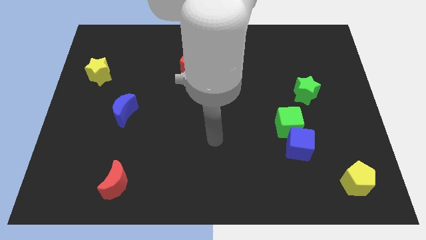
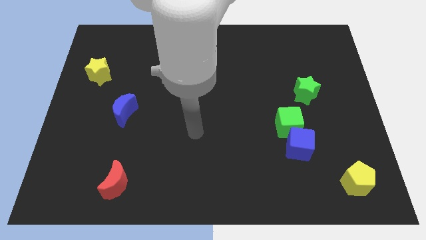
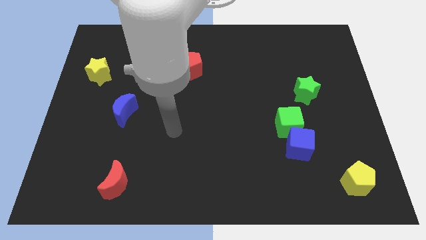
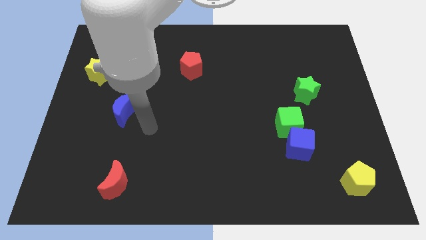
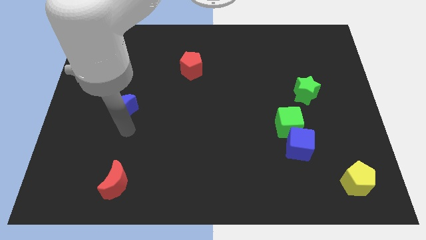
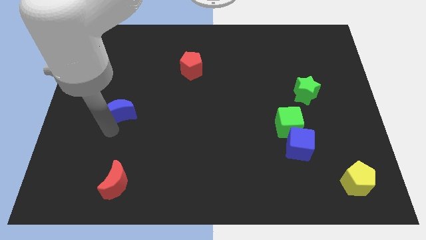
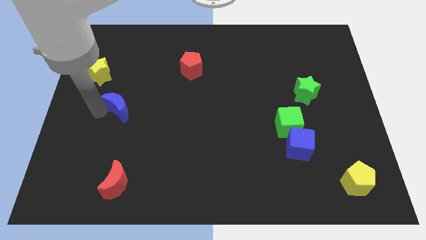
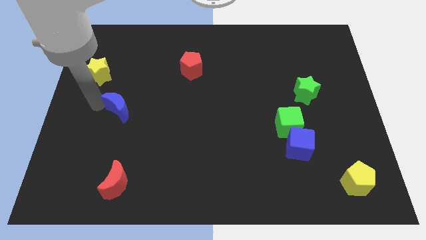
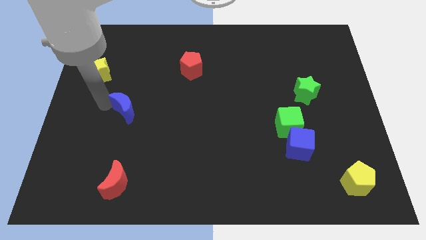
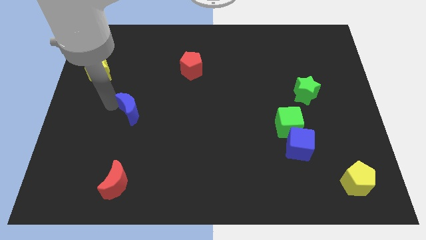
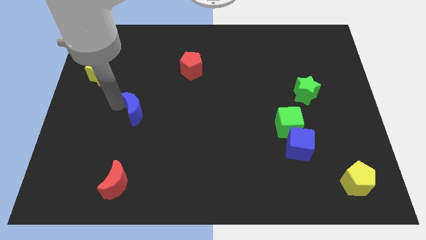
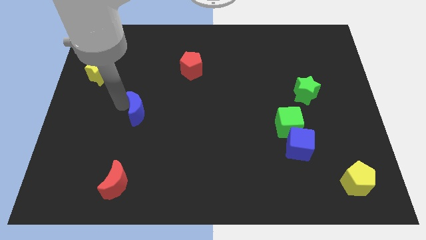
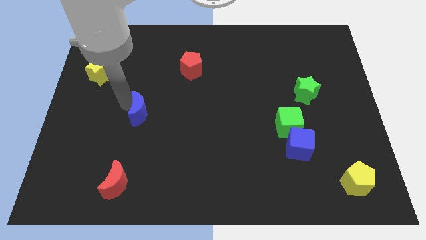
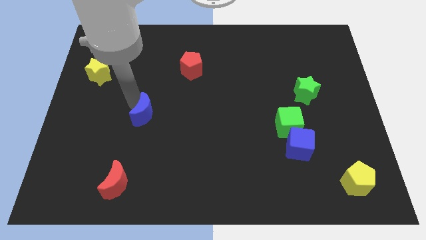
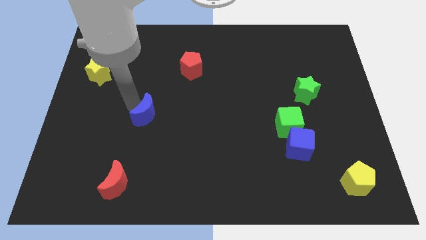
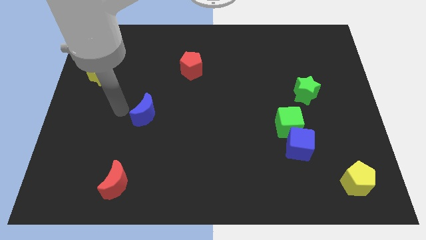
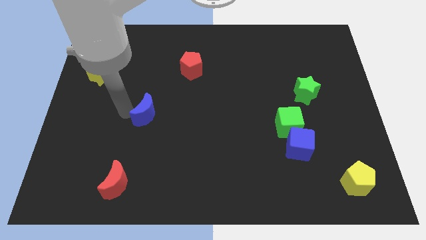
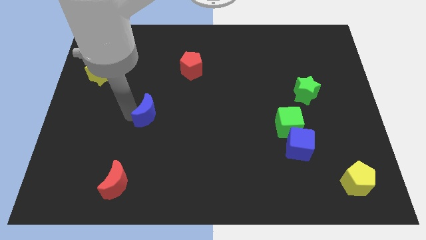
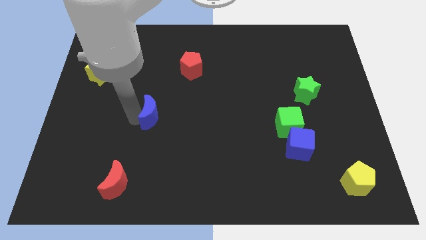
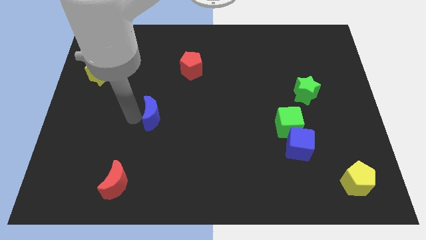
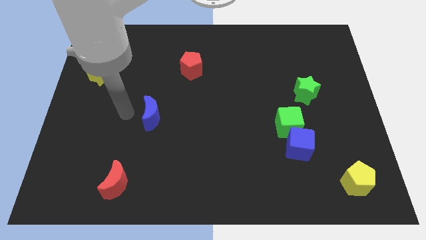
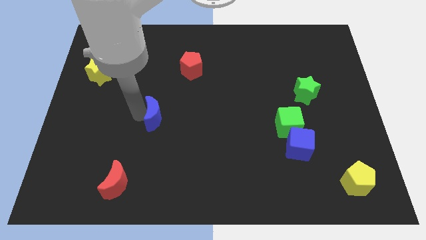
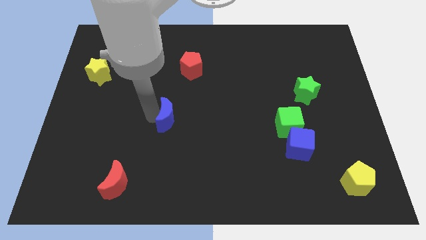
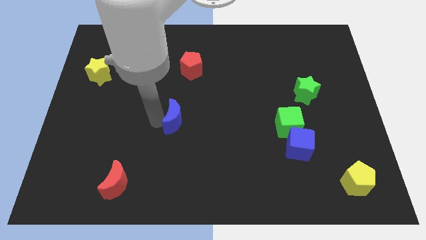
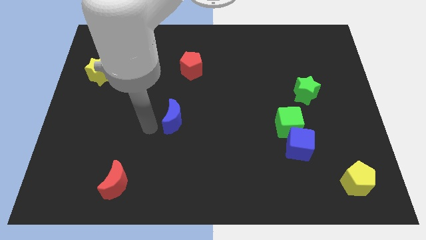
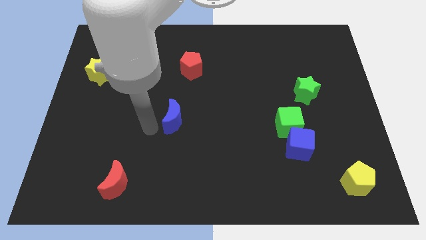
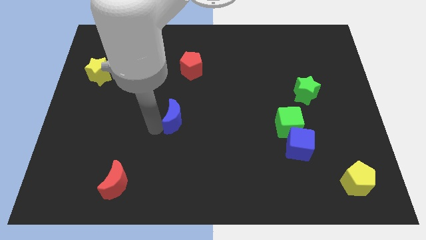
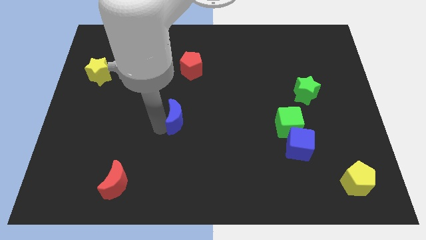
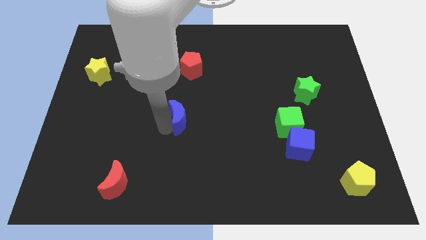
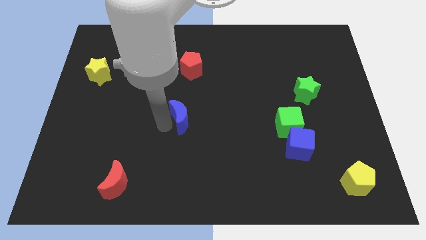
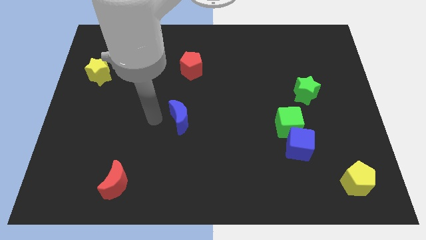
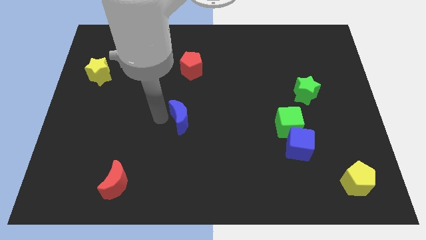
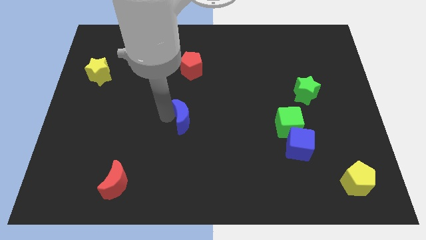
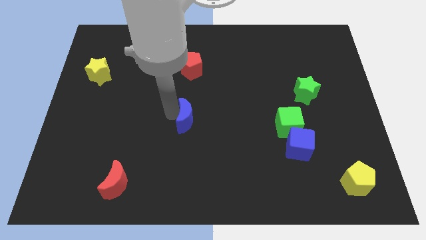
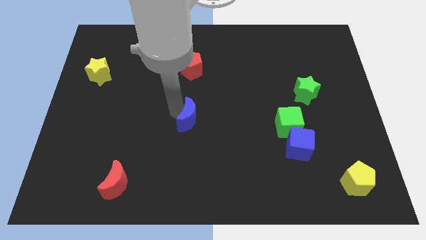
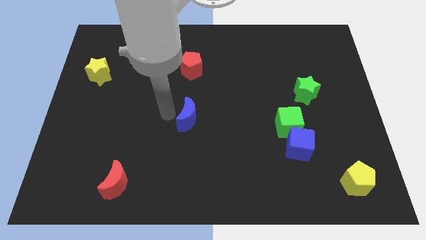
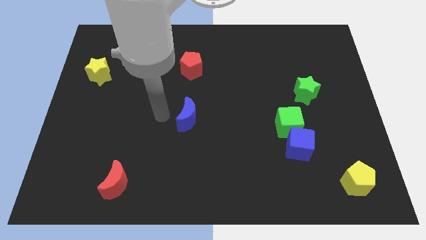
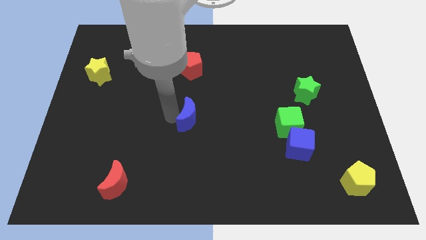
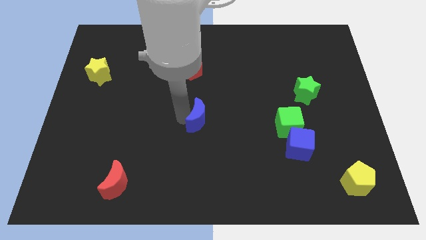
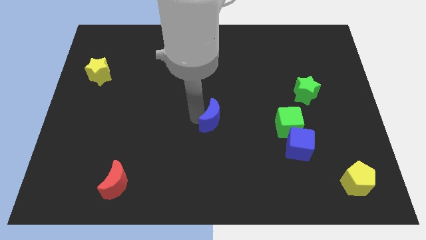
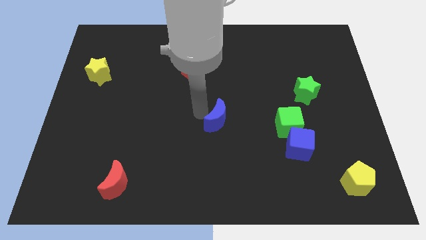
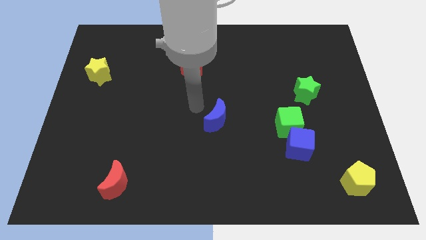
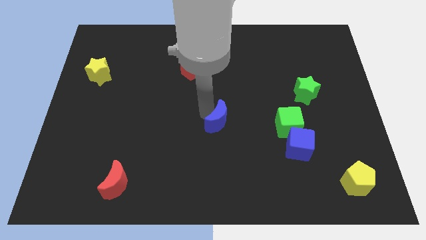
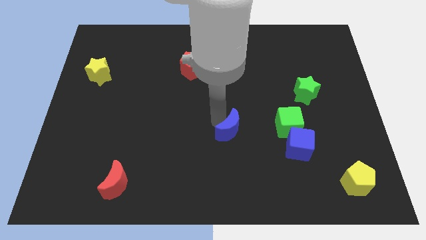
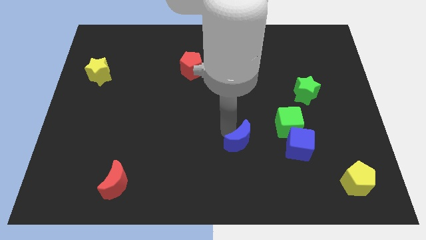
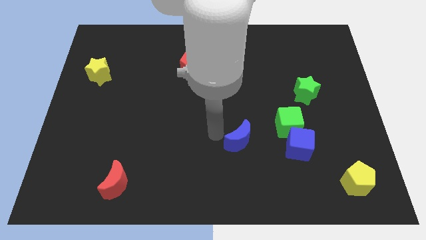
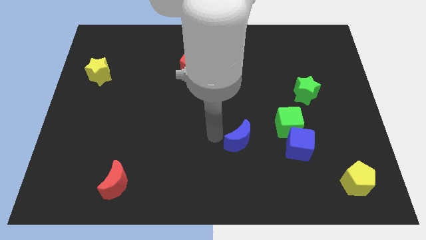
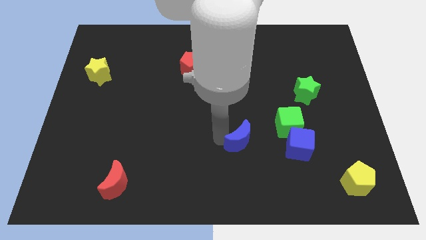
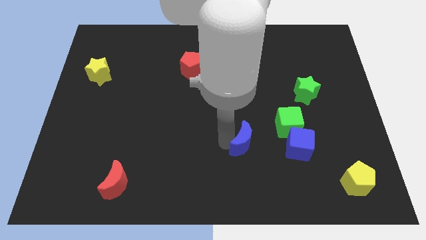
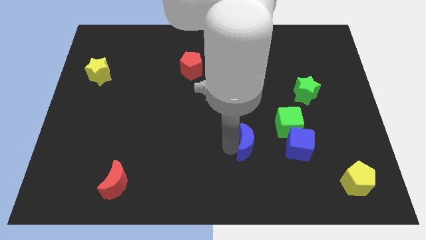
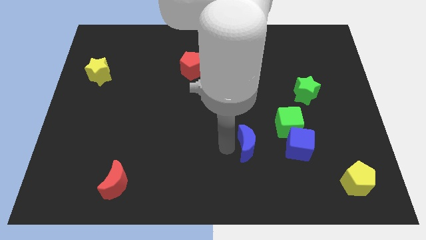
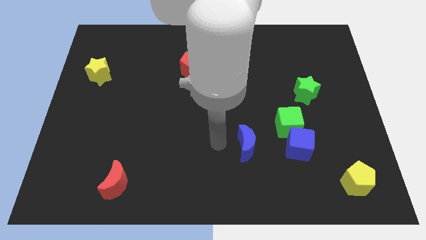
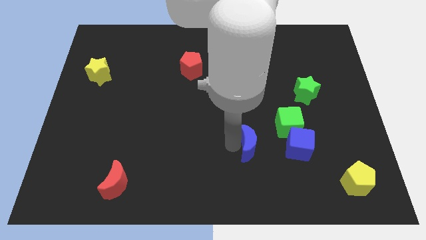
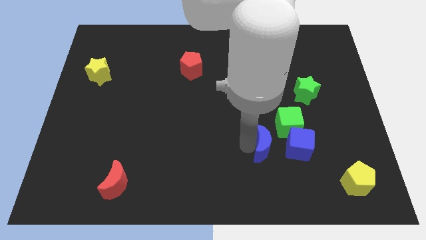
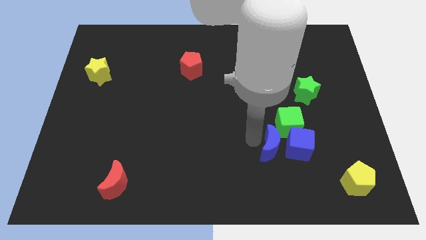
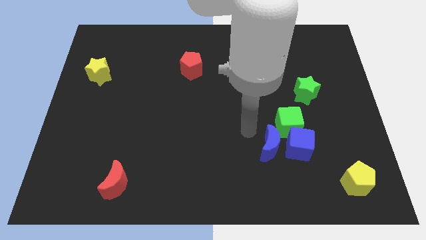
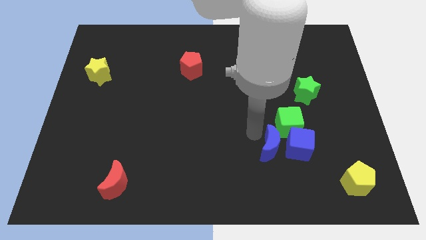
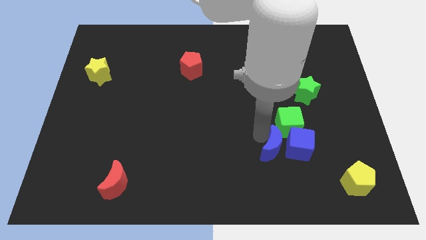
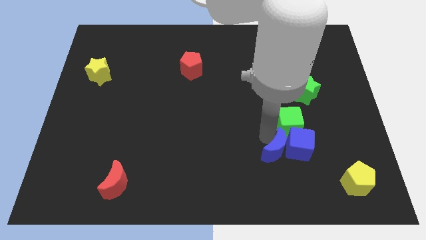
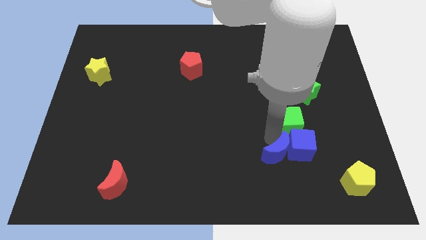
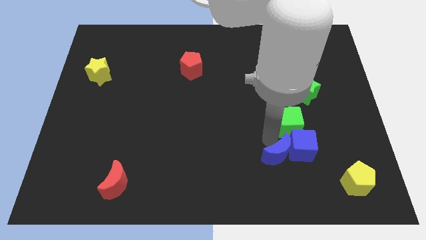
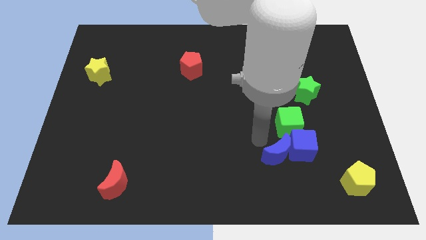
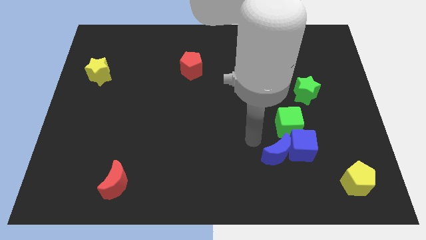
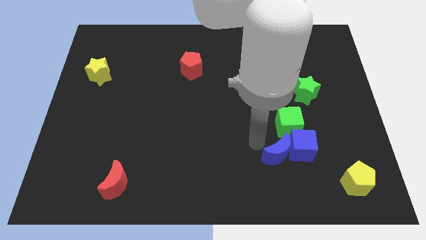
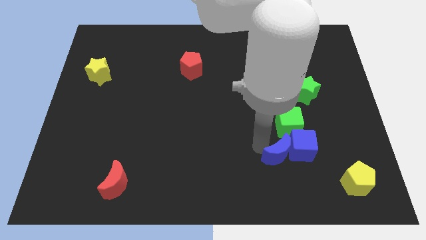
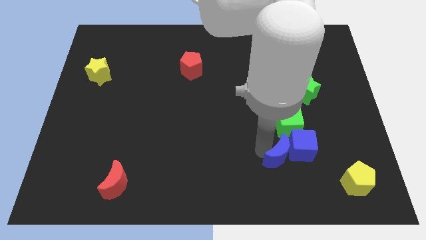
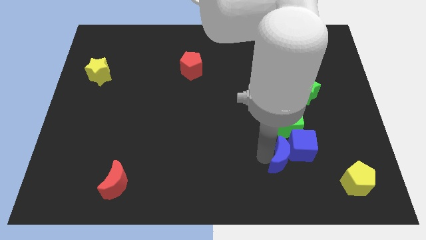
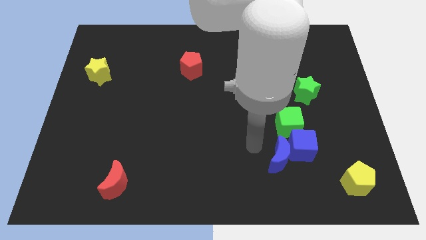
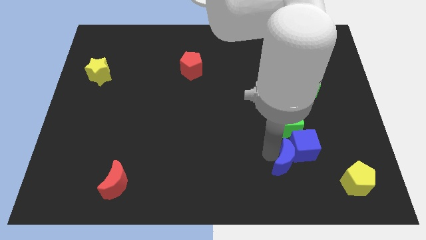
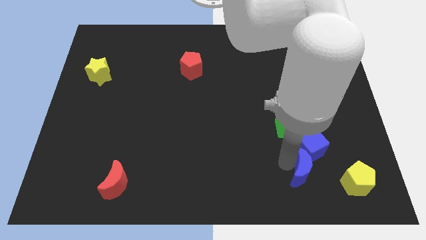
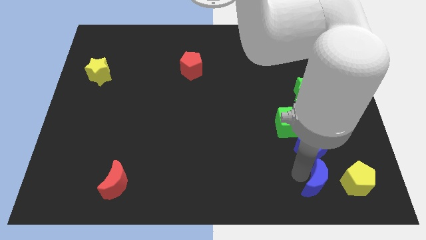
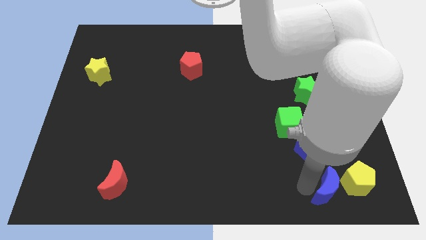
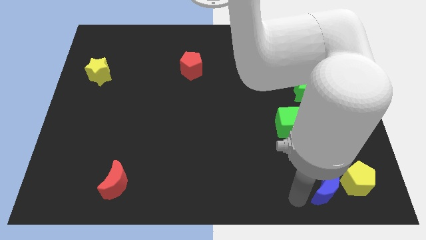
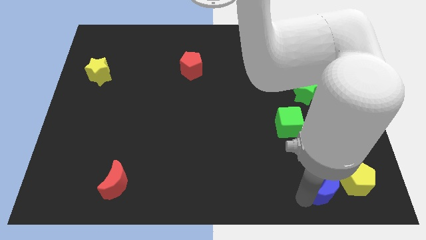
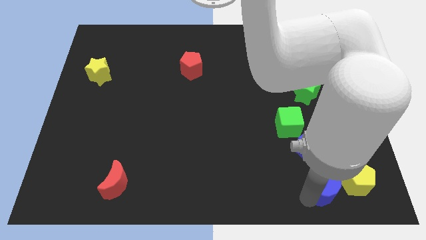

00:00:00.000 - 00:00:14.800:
move the blue moon next to the yellow pentagon
